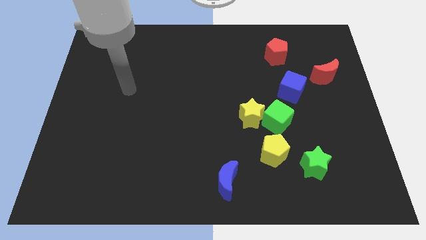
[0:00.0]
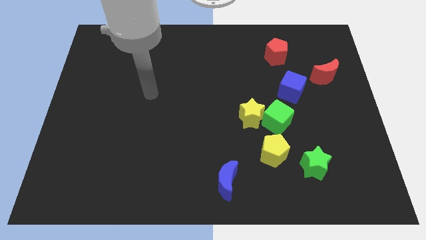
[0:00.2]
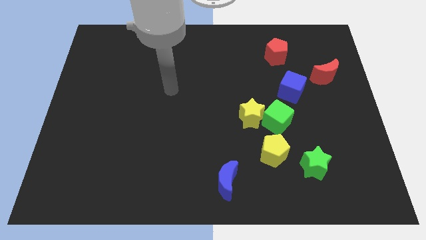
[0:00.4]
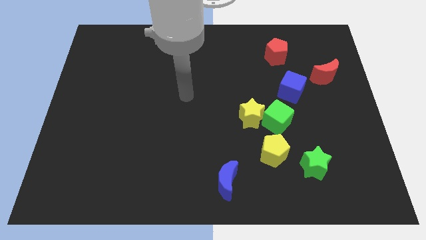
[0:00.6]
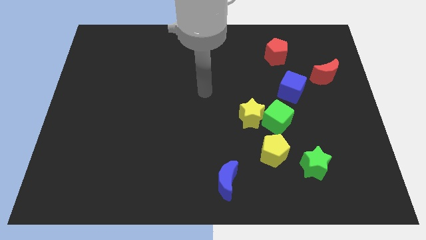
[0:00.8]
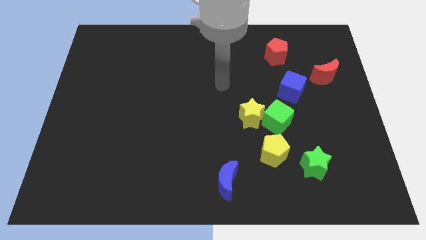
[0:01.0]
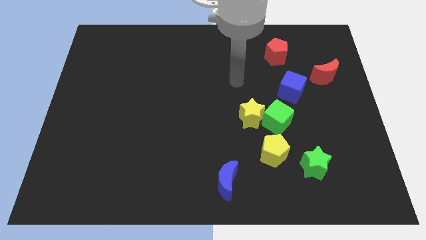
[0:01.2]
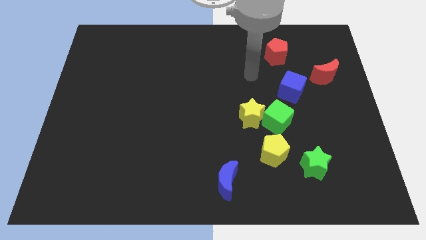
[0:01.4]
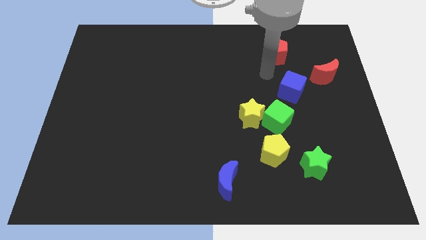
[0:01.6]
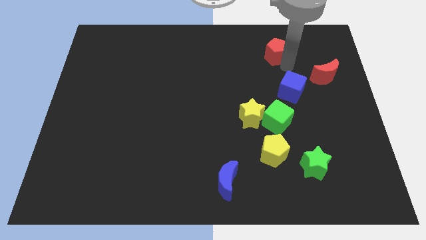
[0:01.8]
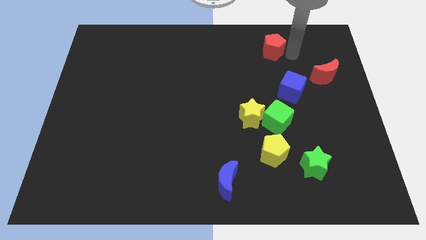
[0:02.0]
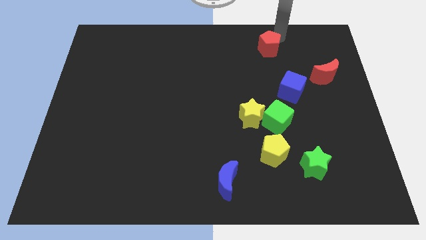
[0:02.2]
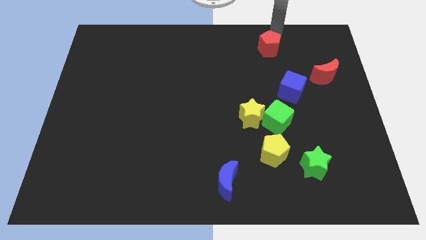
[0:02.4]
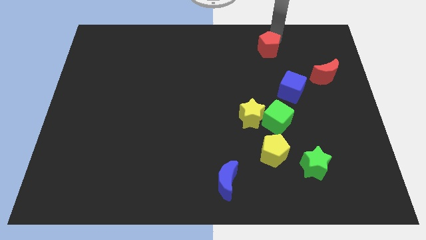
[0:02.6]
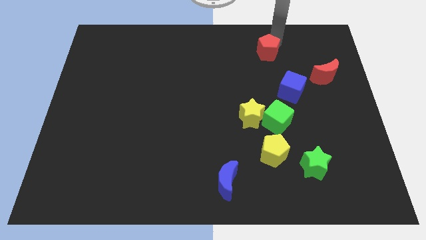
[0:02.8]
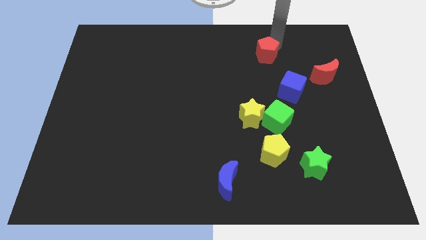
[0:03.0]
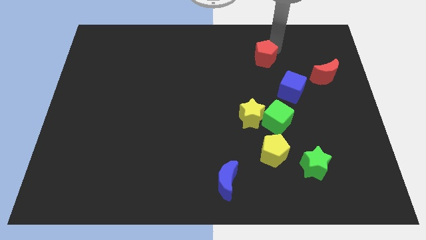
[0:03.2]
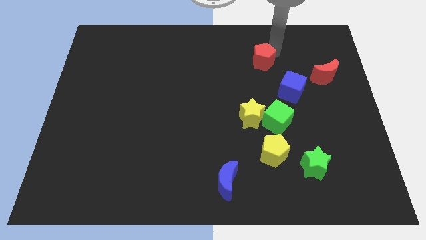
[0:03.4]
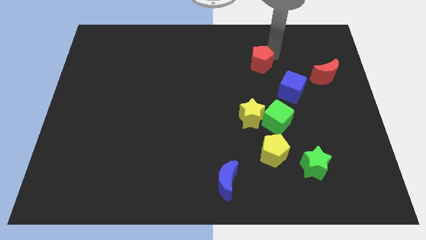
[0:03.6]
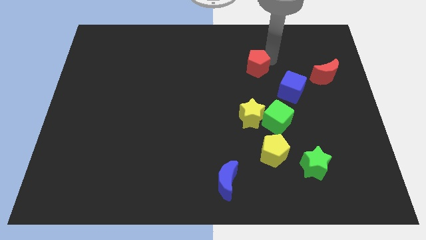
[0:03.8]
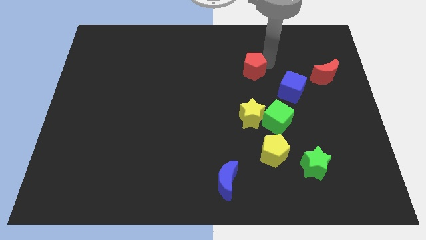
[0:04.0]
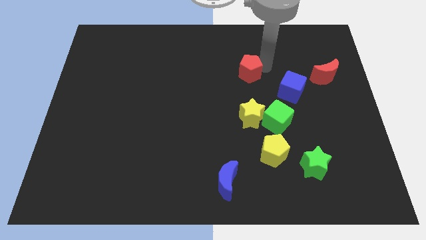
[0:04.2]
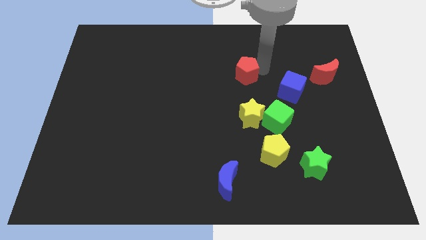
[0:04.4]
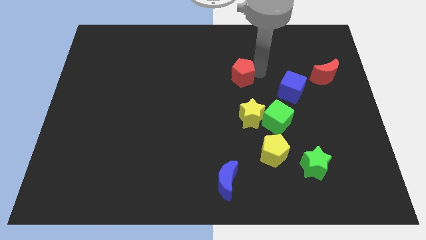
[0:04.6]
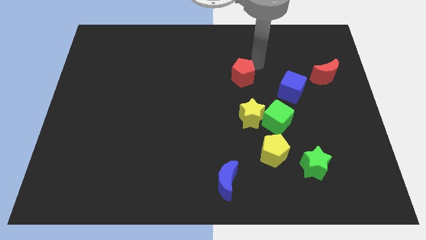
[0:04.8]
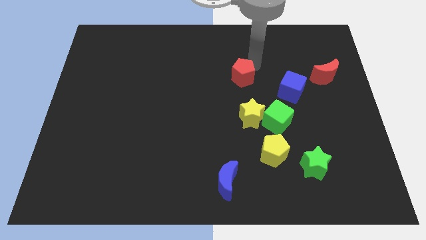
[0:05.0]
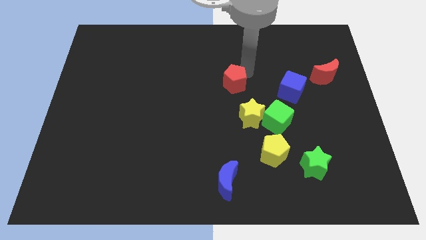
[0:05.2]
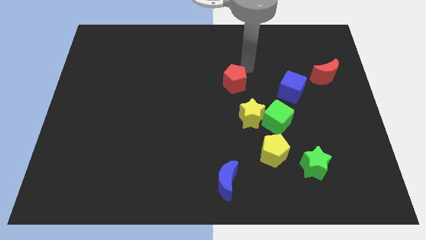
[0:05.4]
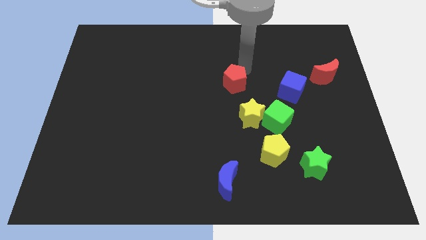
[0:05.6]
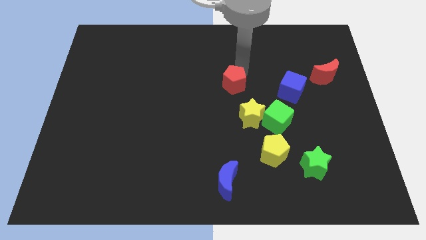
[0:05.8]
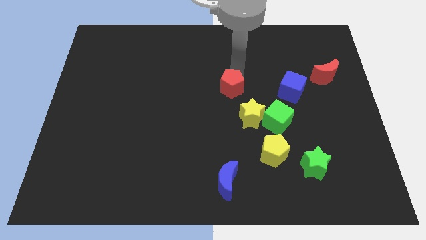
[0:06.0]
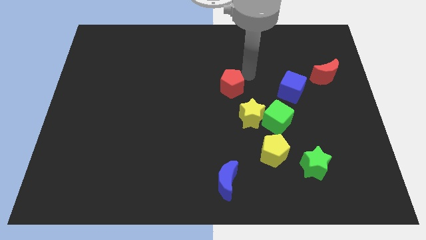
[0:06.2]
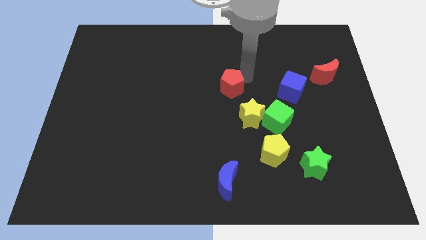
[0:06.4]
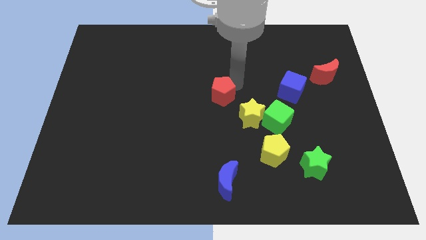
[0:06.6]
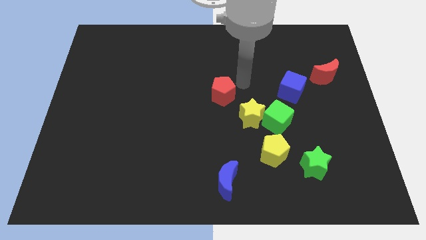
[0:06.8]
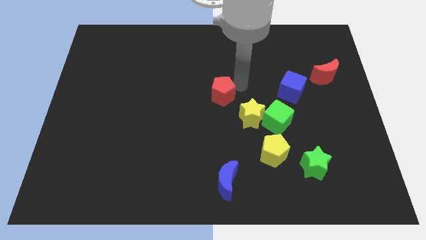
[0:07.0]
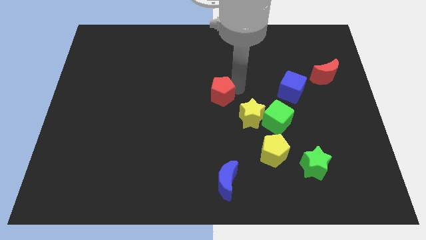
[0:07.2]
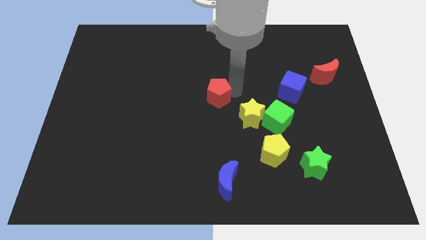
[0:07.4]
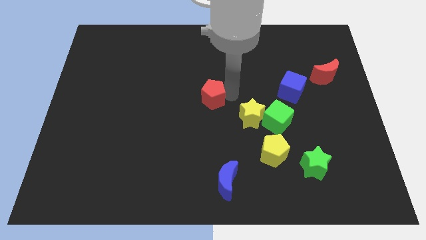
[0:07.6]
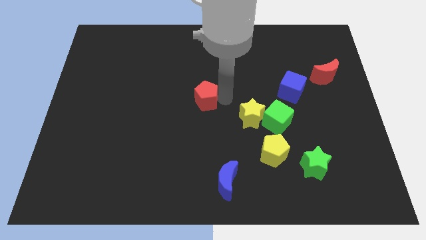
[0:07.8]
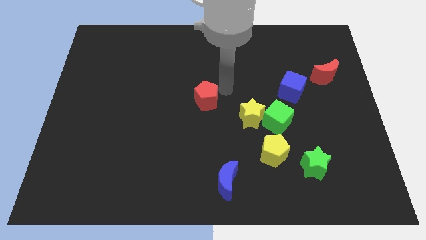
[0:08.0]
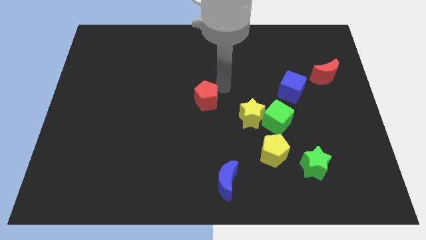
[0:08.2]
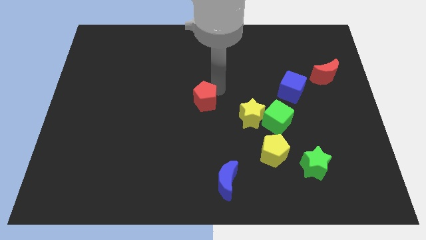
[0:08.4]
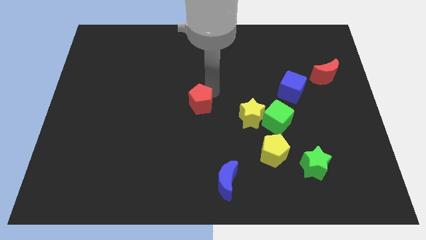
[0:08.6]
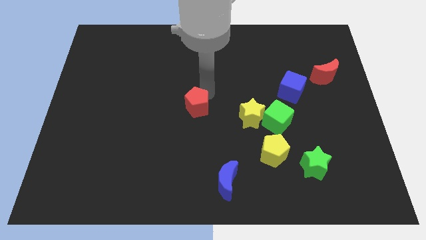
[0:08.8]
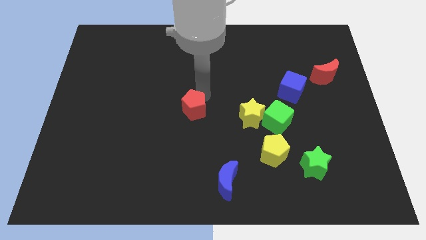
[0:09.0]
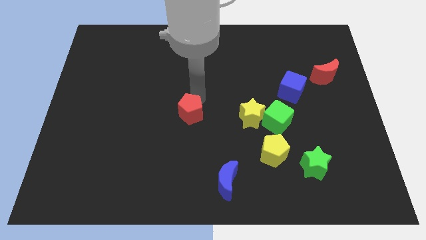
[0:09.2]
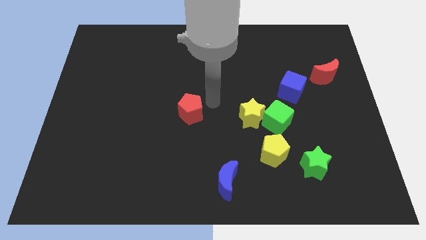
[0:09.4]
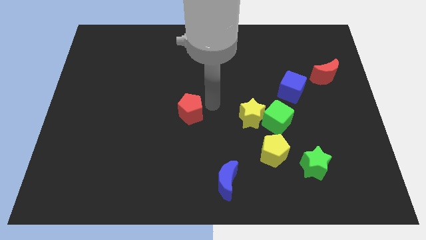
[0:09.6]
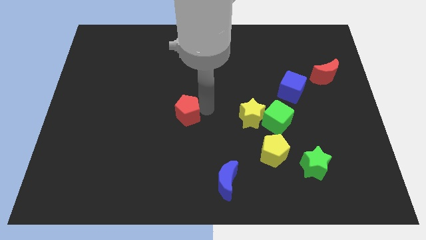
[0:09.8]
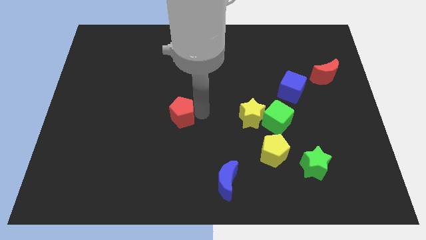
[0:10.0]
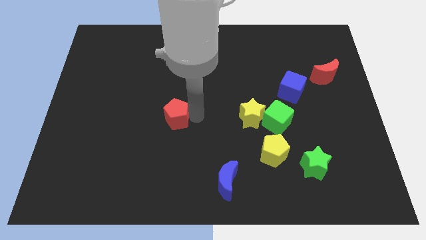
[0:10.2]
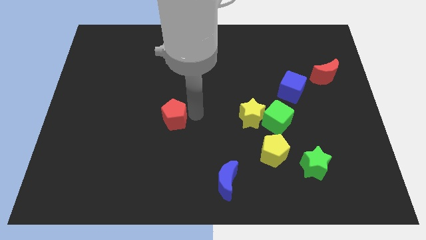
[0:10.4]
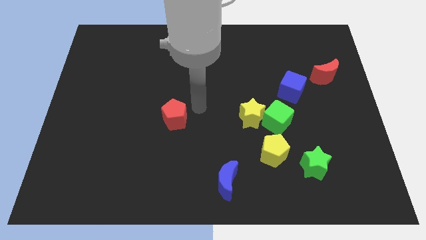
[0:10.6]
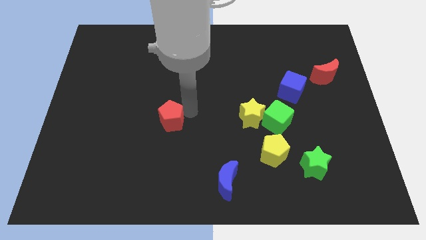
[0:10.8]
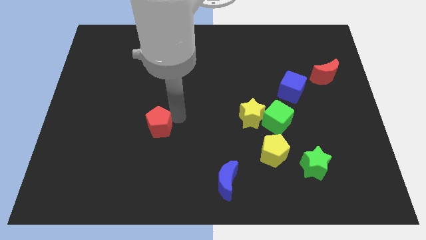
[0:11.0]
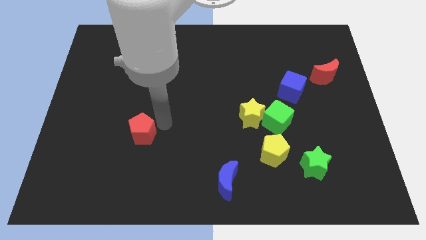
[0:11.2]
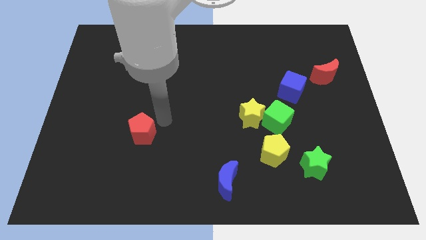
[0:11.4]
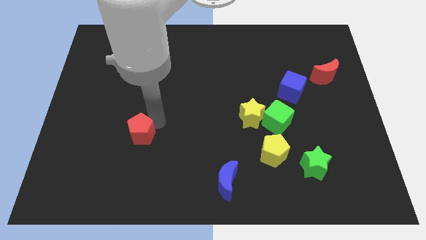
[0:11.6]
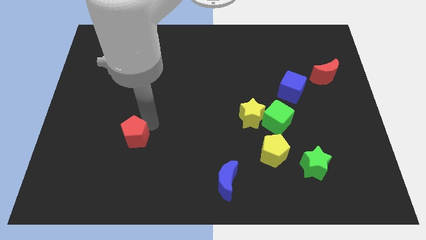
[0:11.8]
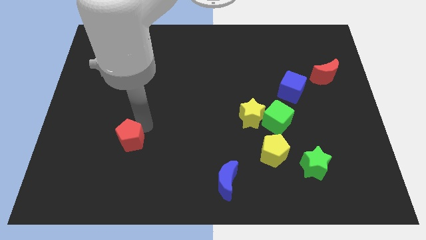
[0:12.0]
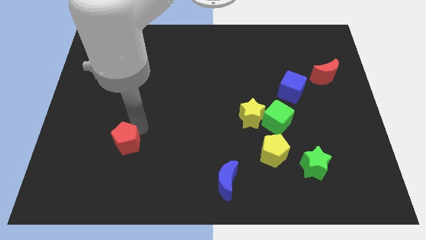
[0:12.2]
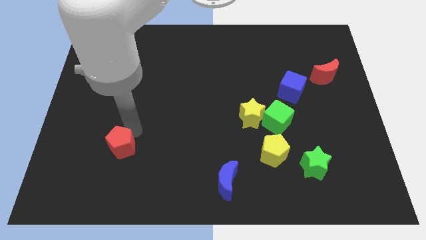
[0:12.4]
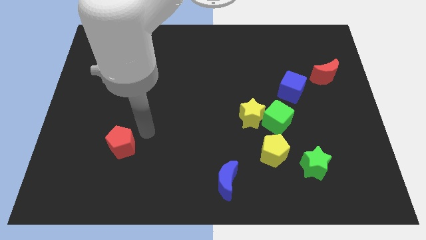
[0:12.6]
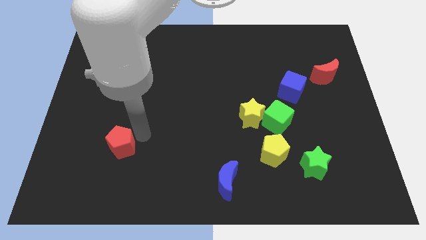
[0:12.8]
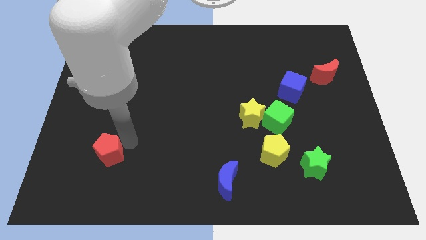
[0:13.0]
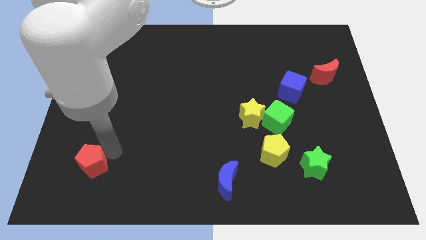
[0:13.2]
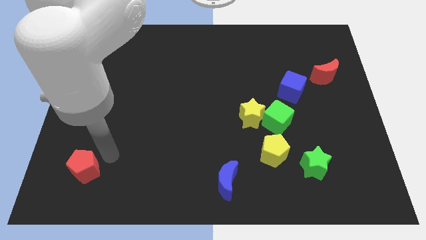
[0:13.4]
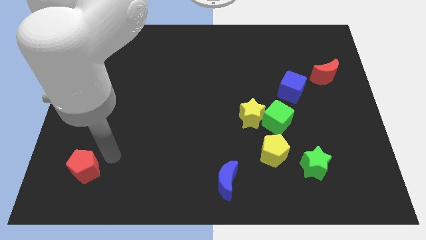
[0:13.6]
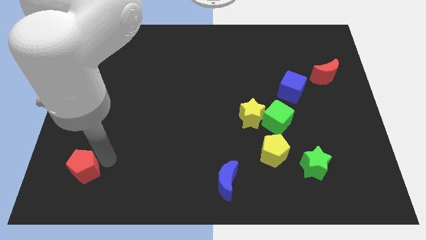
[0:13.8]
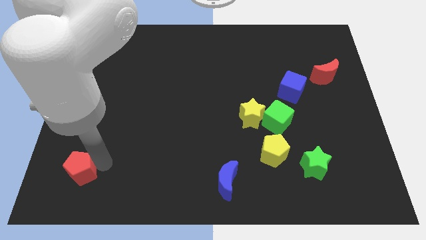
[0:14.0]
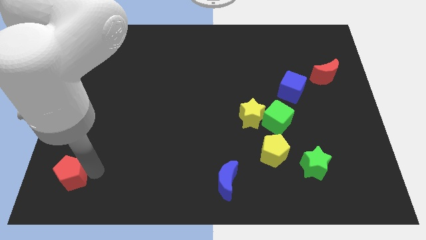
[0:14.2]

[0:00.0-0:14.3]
move the red pentagon to the bottom left of the board

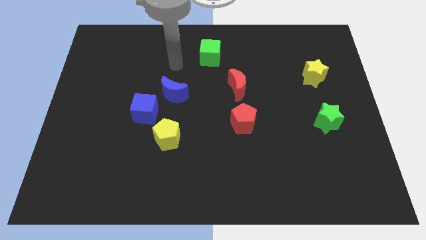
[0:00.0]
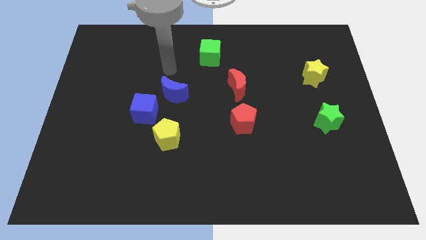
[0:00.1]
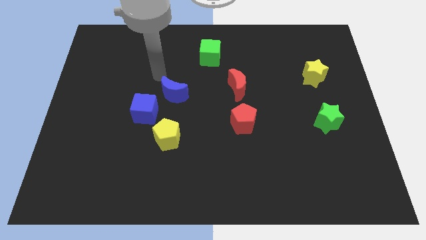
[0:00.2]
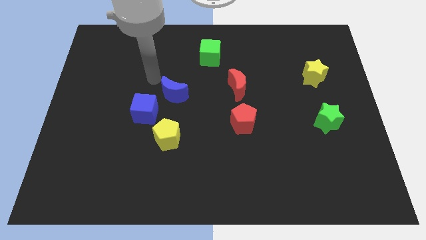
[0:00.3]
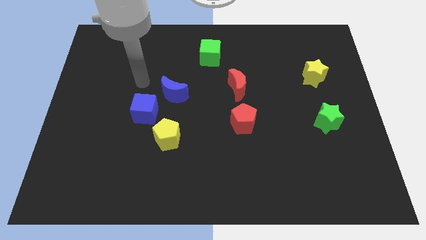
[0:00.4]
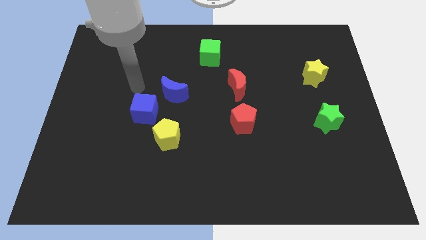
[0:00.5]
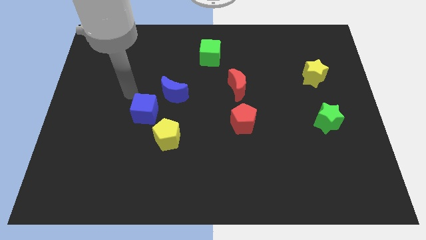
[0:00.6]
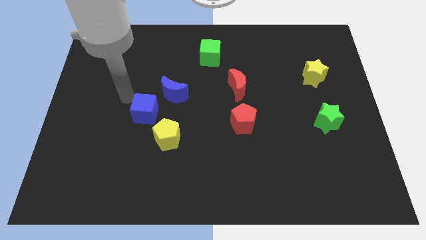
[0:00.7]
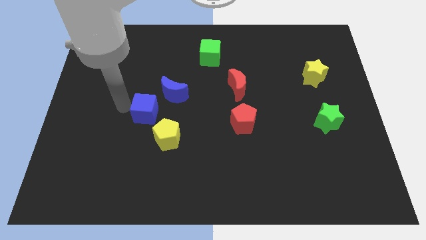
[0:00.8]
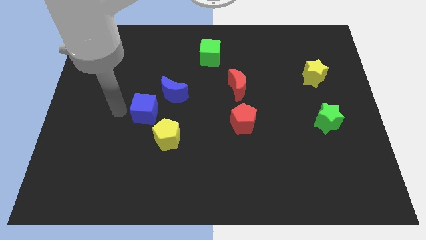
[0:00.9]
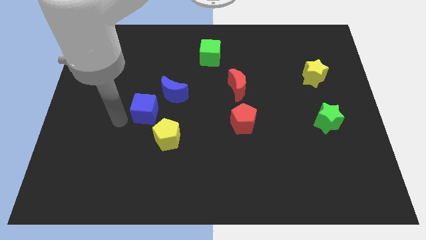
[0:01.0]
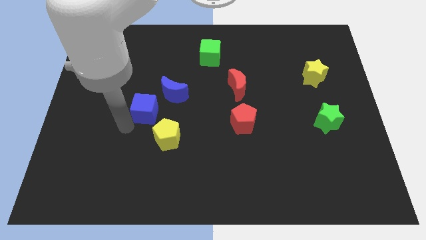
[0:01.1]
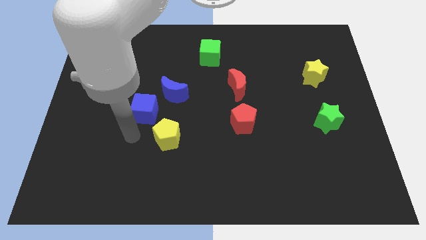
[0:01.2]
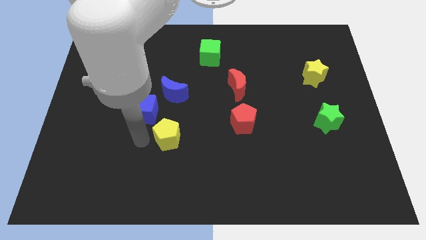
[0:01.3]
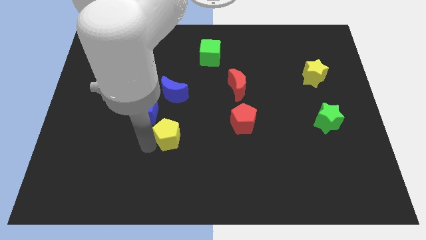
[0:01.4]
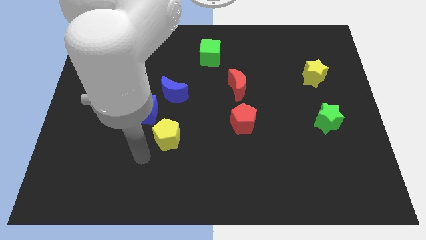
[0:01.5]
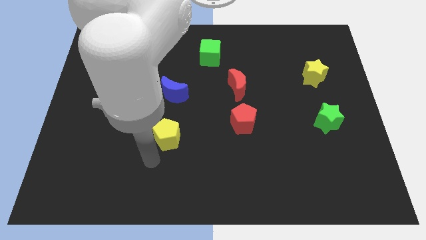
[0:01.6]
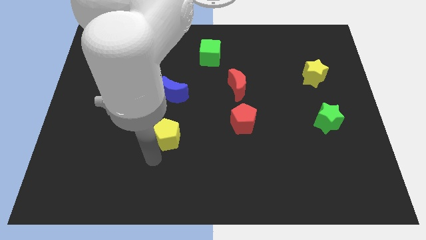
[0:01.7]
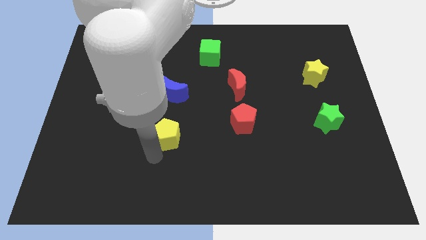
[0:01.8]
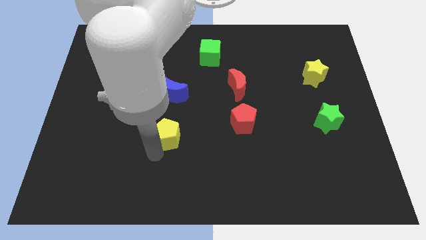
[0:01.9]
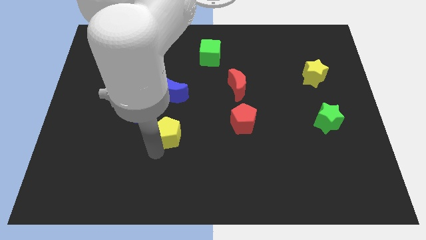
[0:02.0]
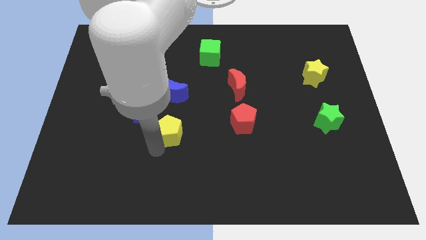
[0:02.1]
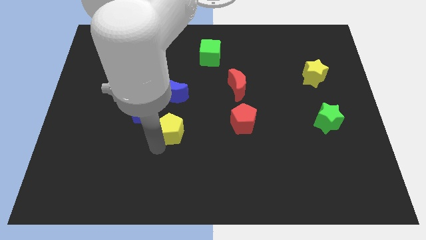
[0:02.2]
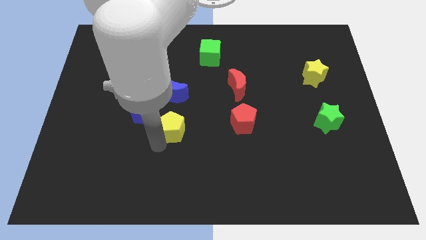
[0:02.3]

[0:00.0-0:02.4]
move the yellow pentagon to the middle
